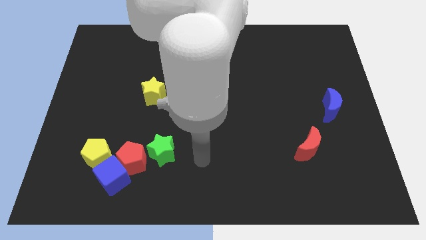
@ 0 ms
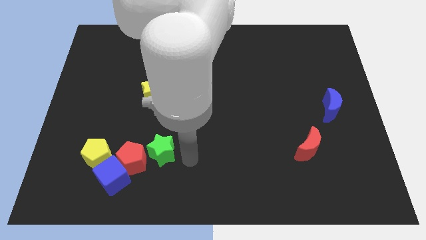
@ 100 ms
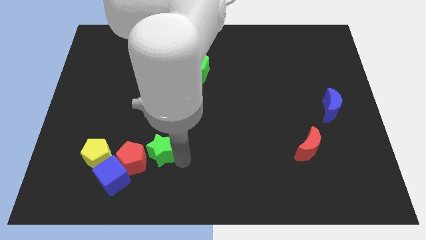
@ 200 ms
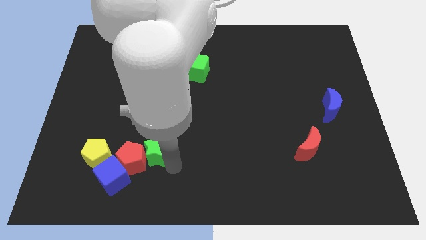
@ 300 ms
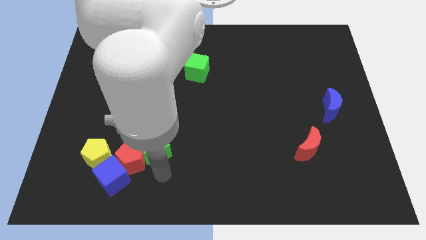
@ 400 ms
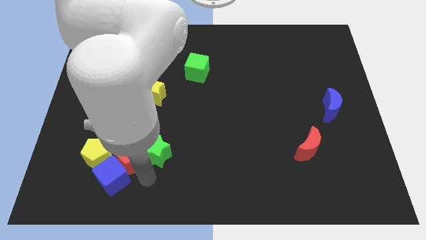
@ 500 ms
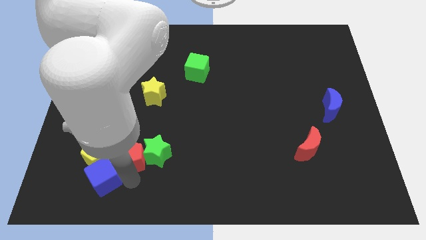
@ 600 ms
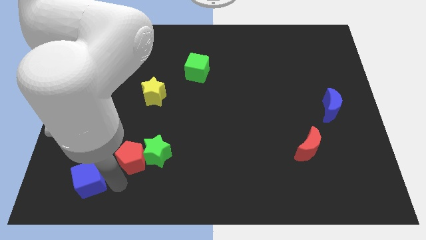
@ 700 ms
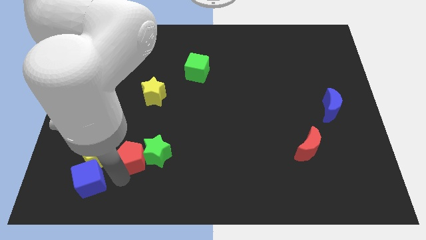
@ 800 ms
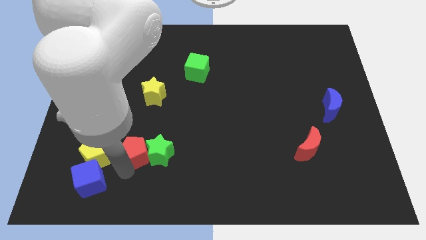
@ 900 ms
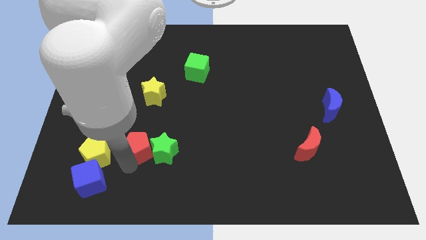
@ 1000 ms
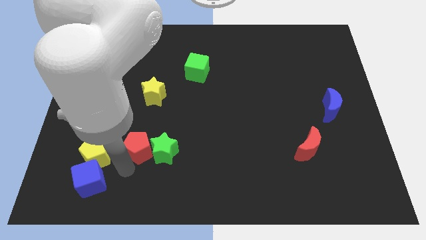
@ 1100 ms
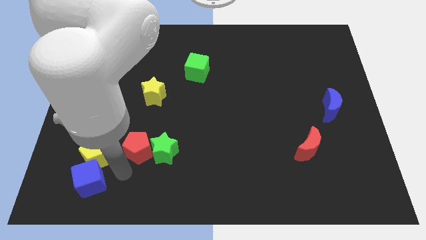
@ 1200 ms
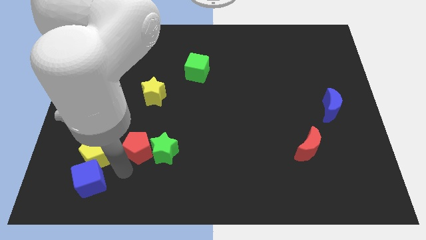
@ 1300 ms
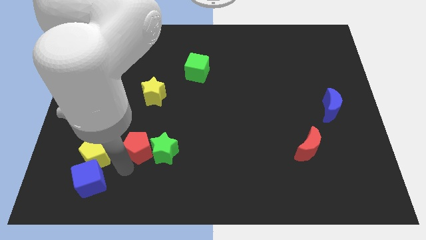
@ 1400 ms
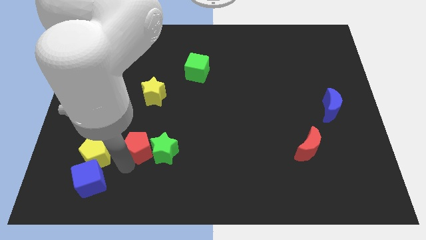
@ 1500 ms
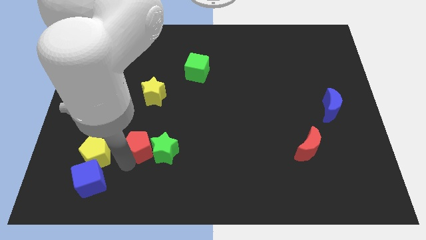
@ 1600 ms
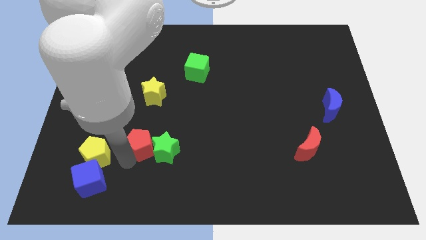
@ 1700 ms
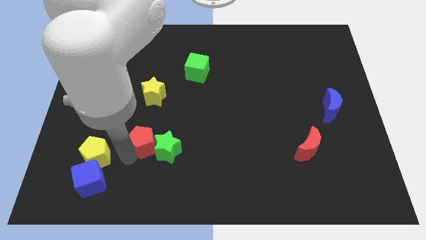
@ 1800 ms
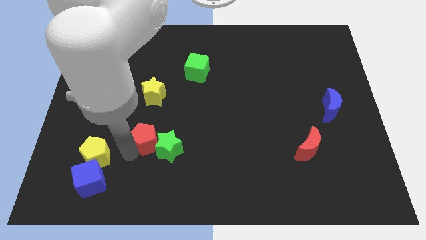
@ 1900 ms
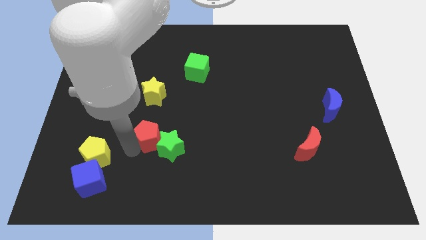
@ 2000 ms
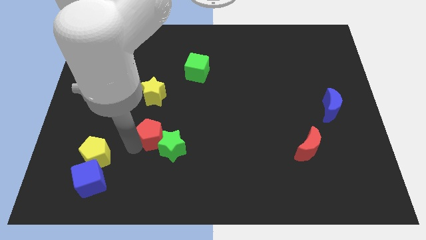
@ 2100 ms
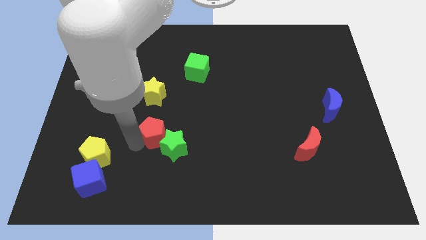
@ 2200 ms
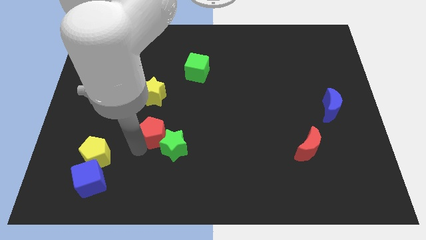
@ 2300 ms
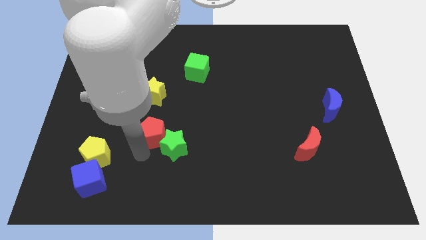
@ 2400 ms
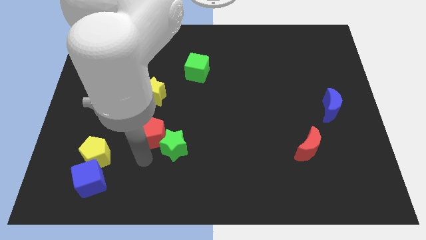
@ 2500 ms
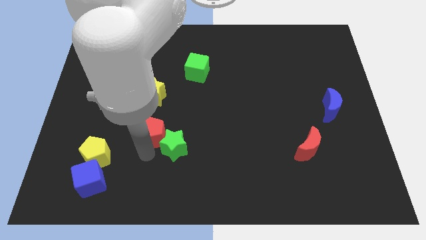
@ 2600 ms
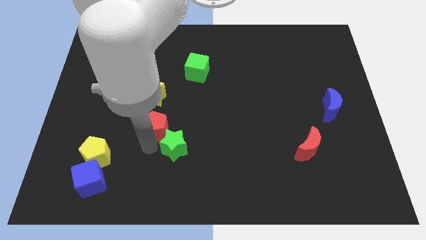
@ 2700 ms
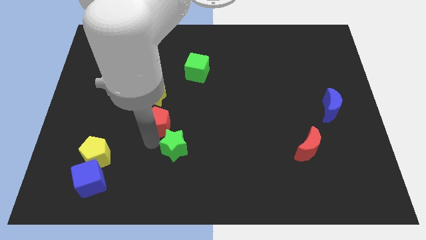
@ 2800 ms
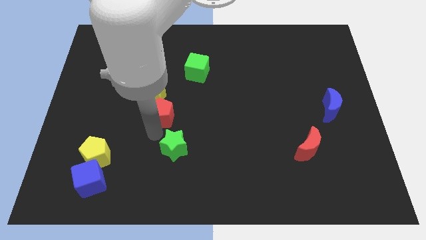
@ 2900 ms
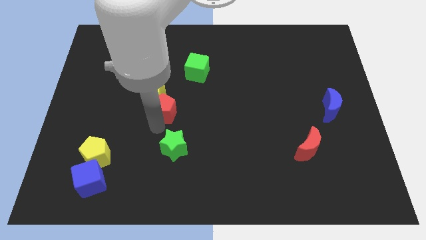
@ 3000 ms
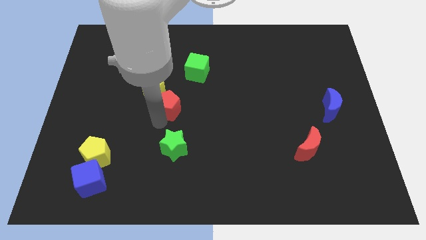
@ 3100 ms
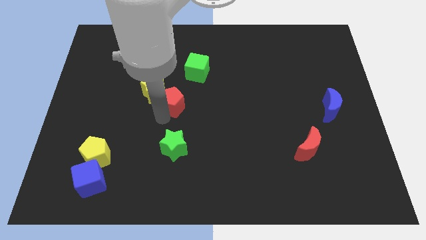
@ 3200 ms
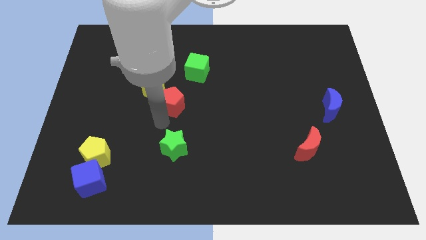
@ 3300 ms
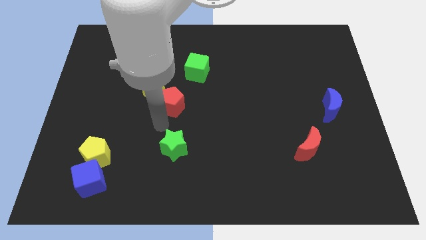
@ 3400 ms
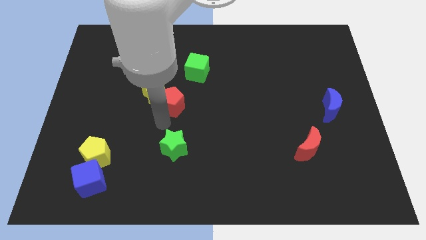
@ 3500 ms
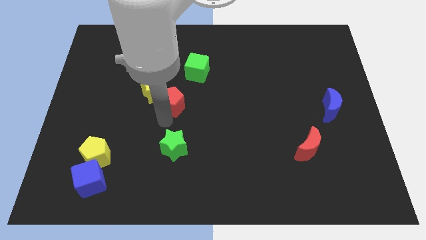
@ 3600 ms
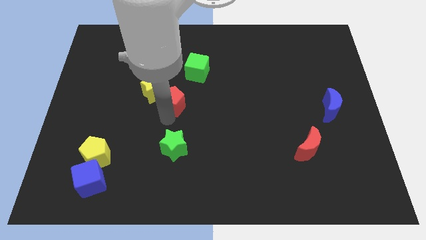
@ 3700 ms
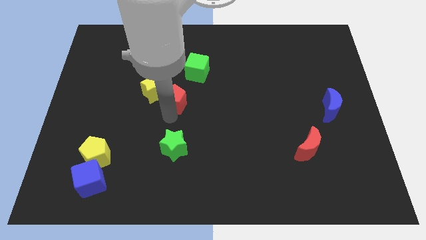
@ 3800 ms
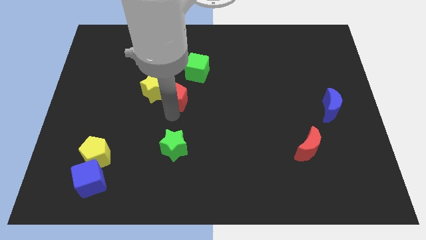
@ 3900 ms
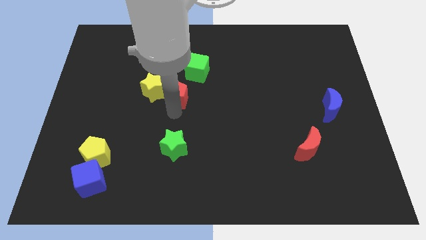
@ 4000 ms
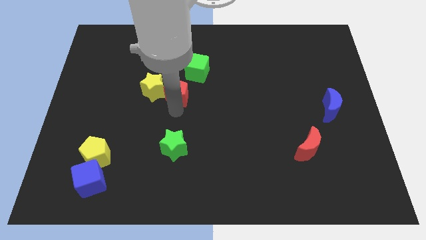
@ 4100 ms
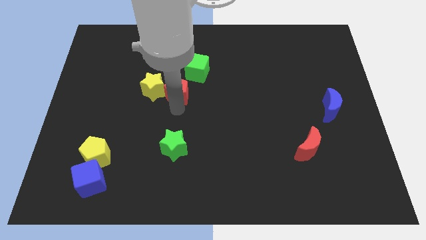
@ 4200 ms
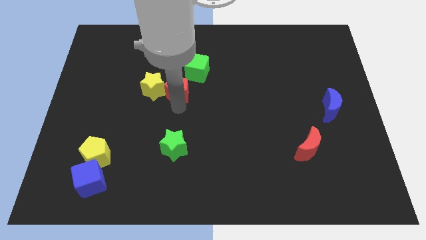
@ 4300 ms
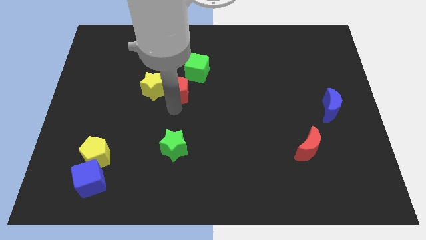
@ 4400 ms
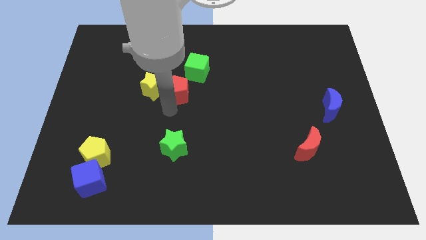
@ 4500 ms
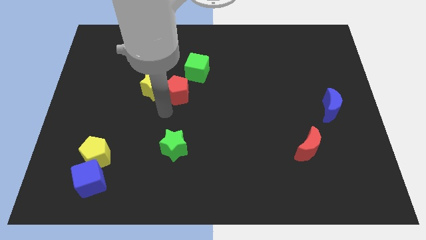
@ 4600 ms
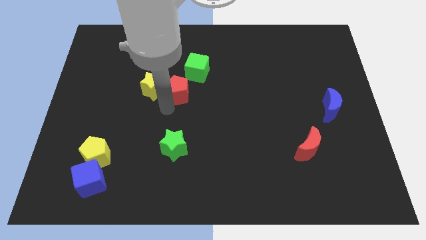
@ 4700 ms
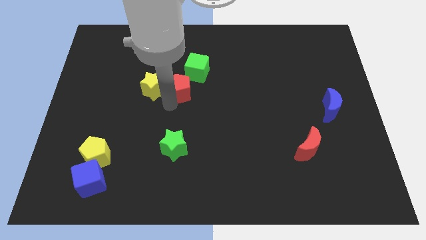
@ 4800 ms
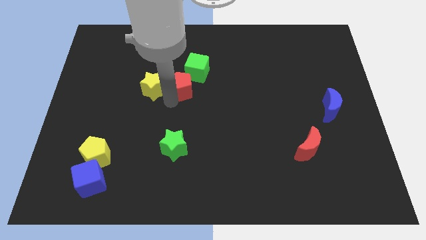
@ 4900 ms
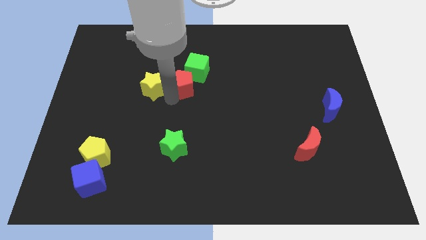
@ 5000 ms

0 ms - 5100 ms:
push the red pentagon to the green cube

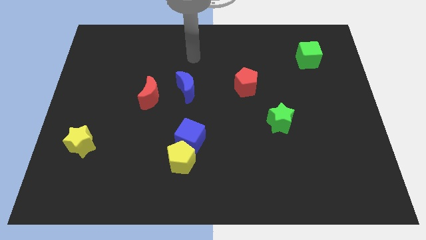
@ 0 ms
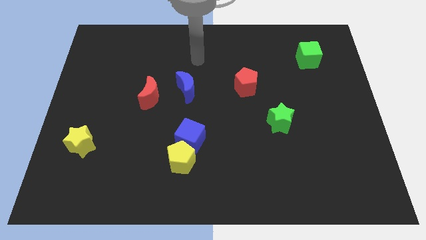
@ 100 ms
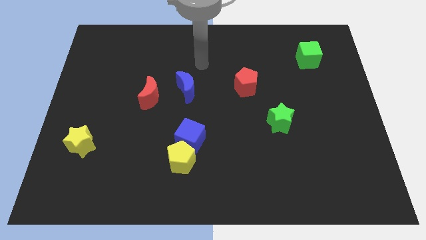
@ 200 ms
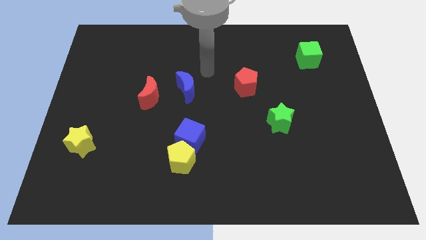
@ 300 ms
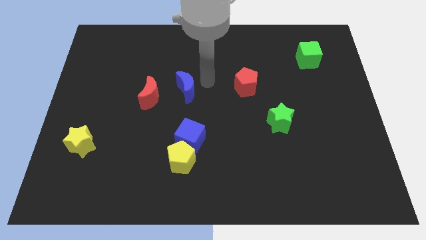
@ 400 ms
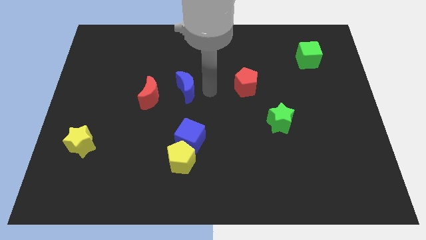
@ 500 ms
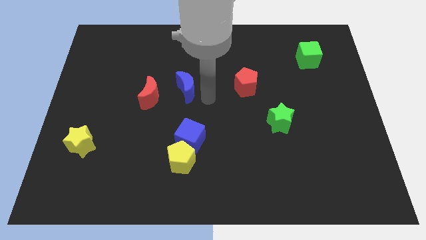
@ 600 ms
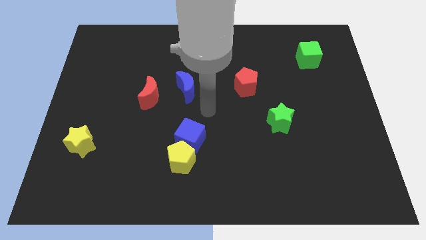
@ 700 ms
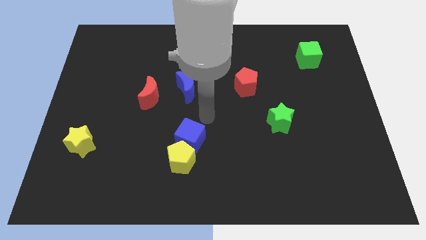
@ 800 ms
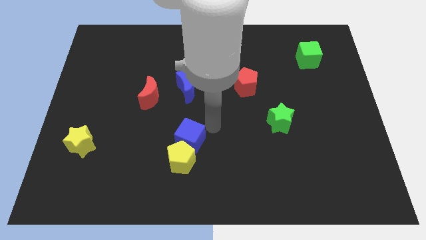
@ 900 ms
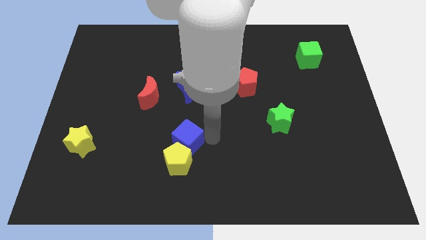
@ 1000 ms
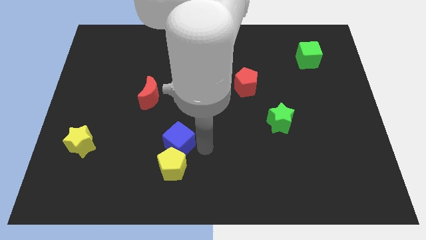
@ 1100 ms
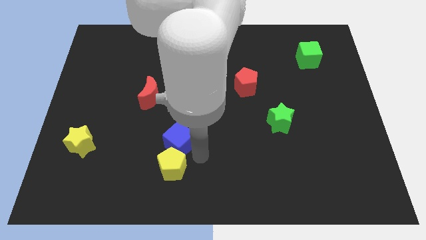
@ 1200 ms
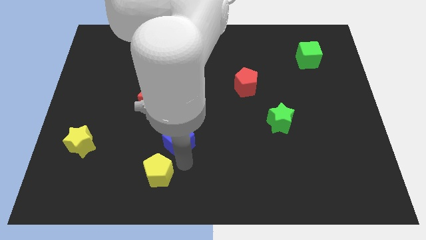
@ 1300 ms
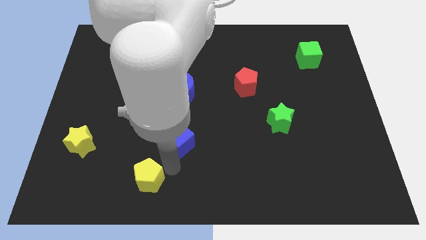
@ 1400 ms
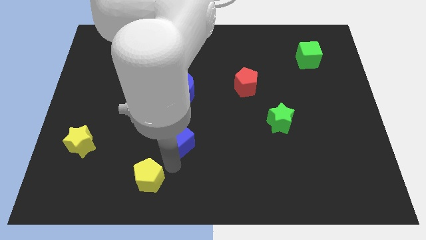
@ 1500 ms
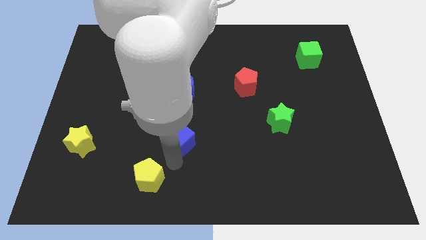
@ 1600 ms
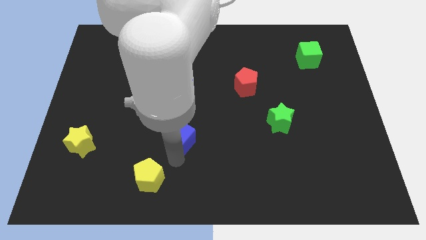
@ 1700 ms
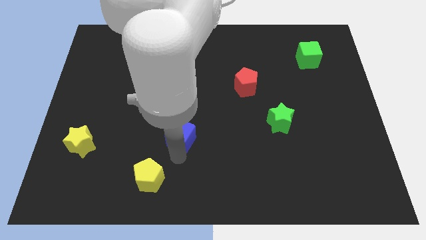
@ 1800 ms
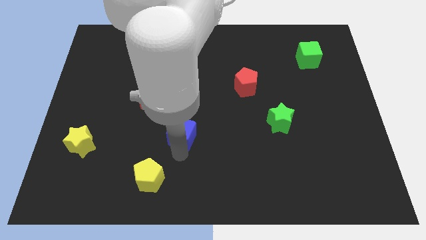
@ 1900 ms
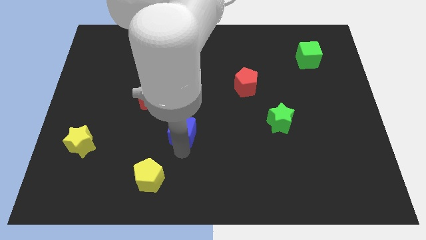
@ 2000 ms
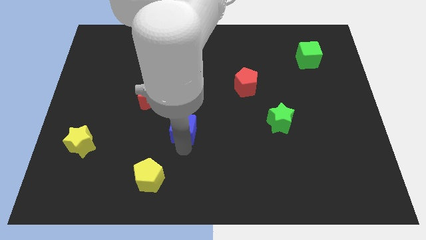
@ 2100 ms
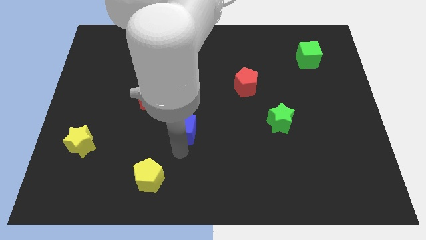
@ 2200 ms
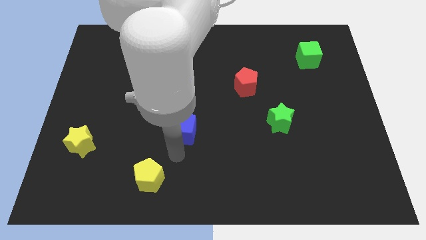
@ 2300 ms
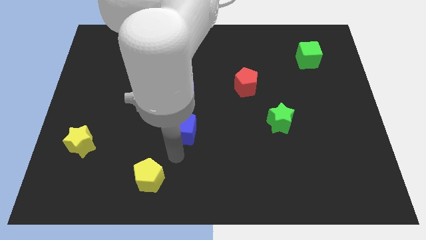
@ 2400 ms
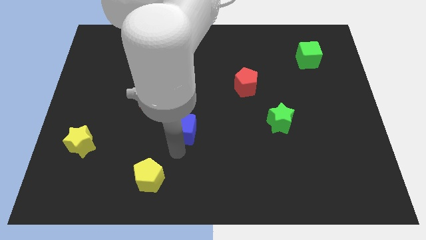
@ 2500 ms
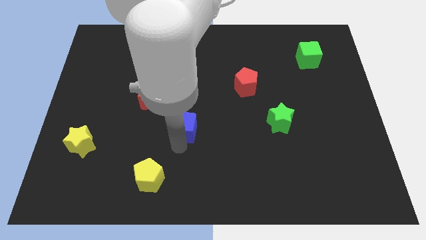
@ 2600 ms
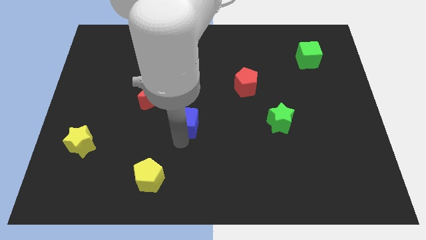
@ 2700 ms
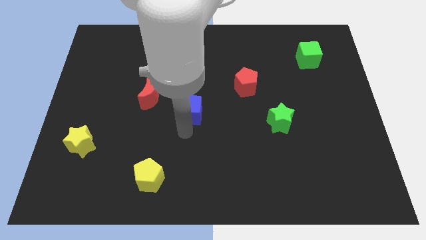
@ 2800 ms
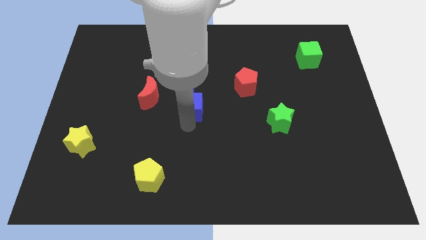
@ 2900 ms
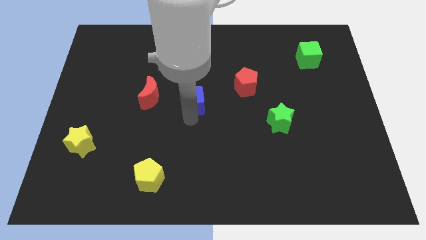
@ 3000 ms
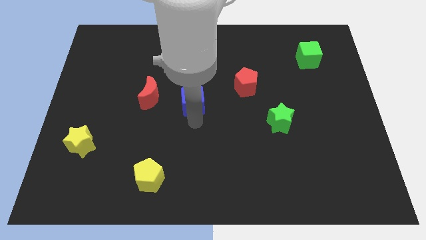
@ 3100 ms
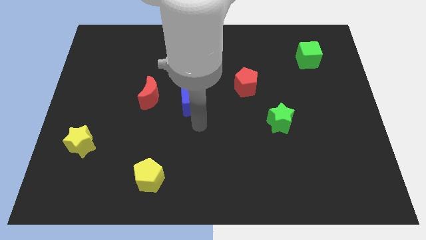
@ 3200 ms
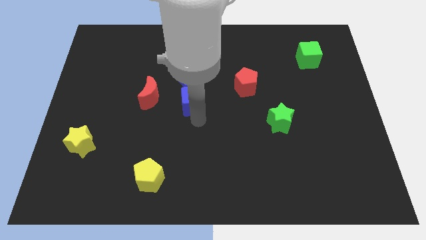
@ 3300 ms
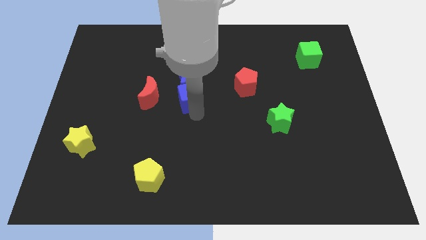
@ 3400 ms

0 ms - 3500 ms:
slide the blue cube to the blue moon
